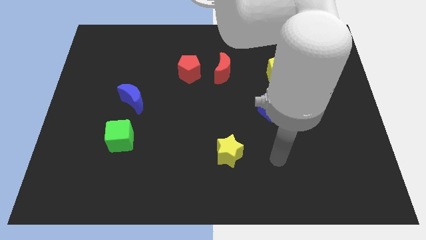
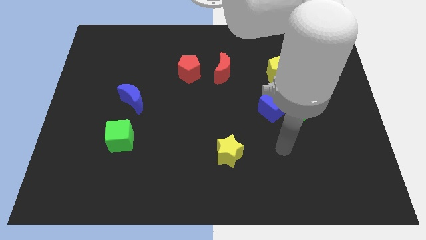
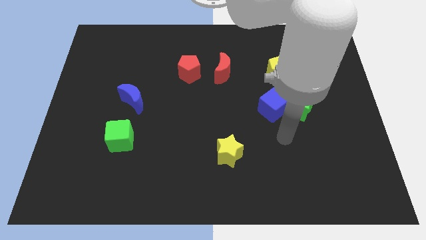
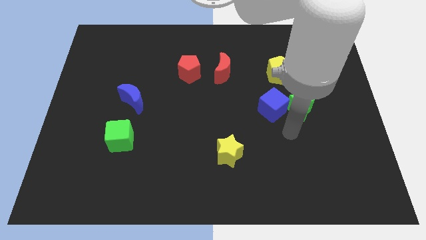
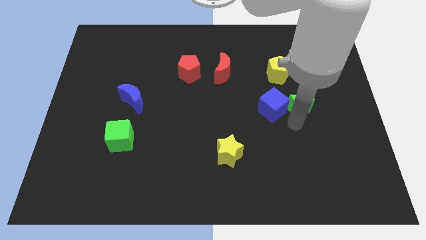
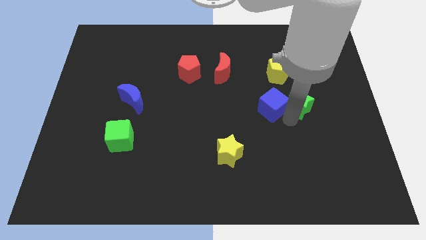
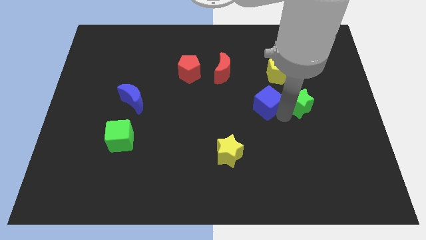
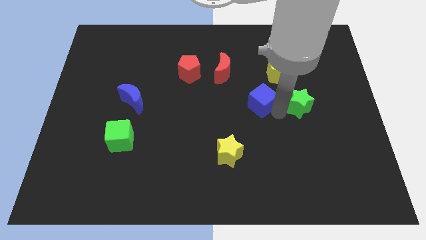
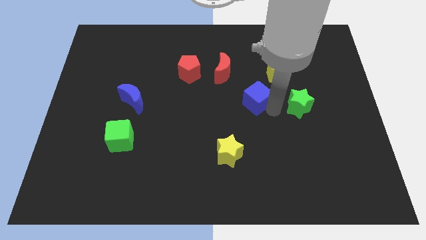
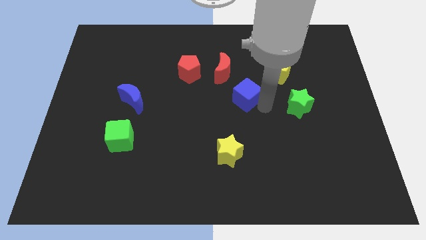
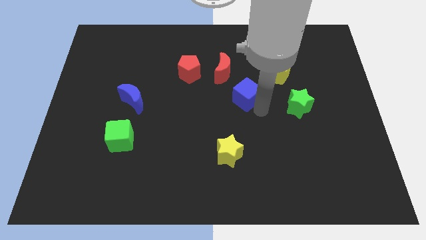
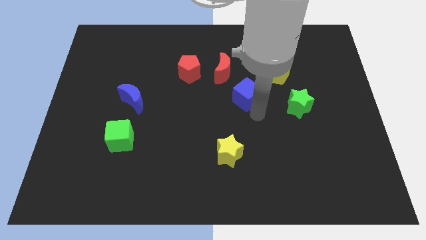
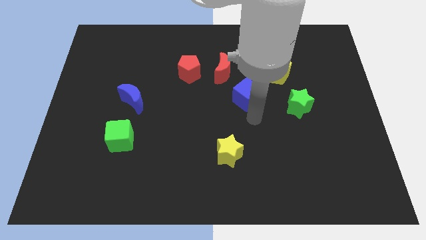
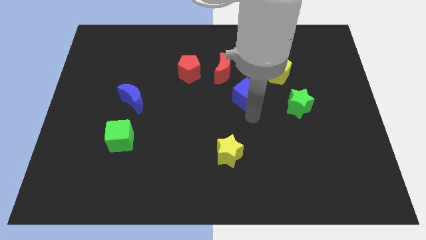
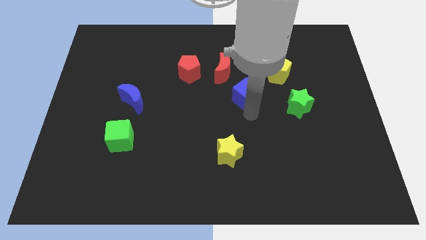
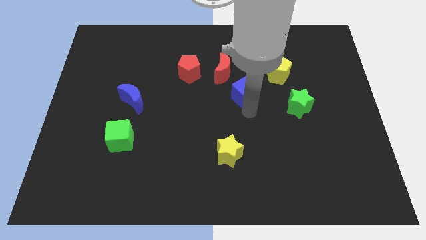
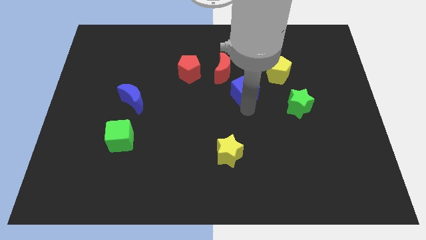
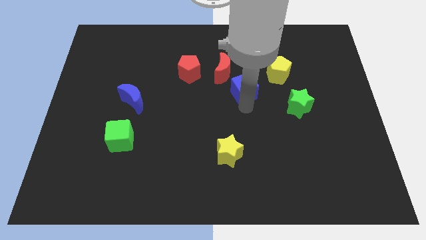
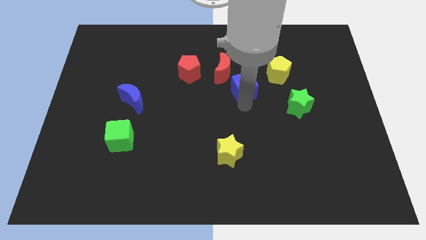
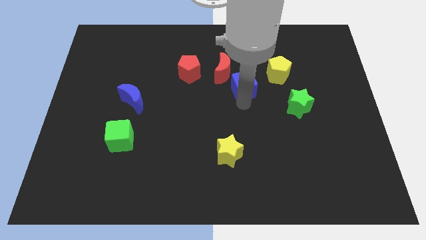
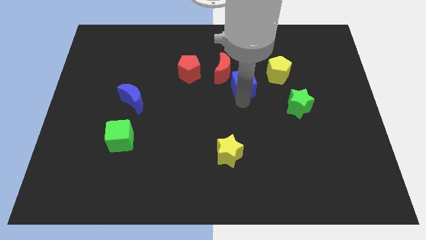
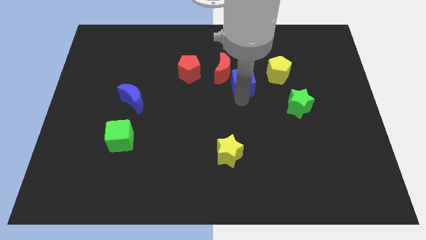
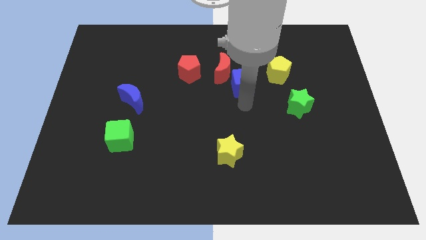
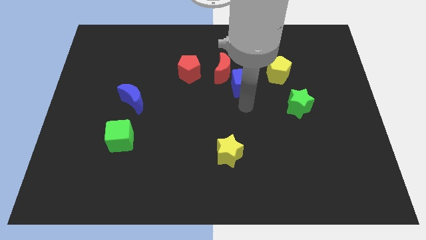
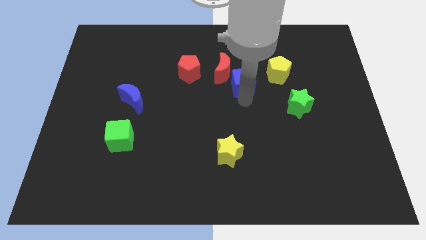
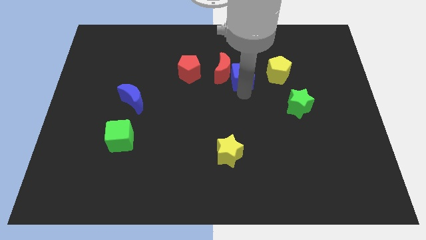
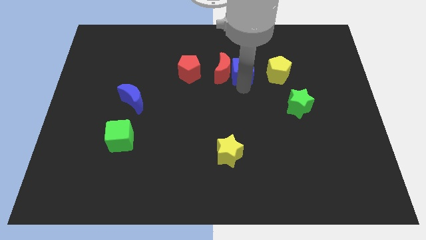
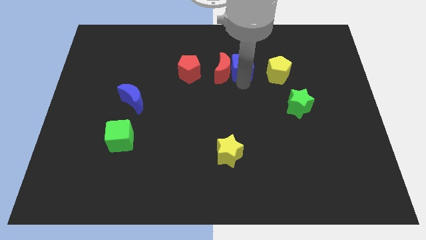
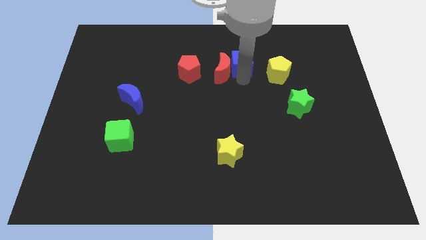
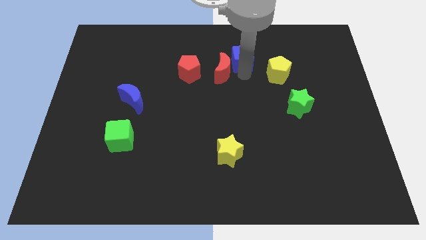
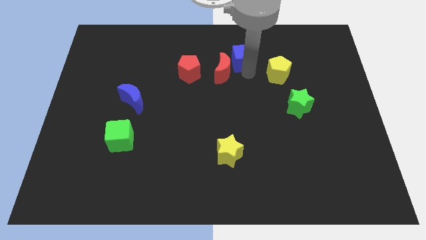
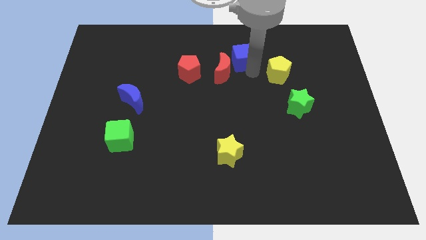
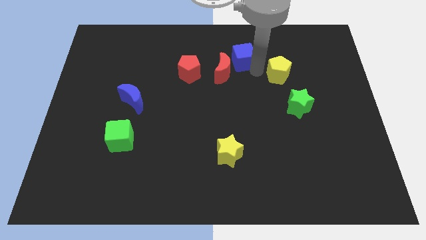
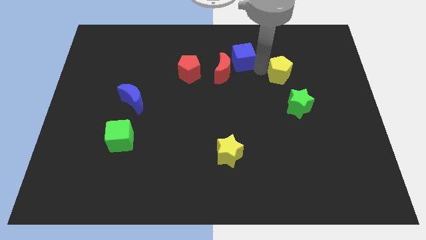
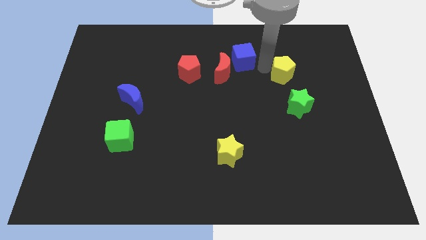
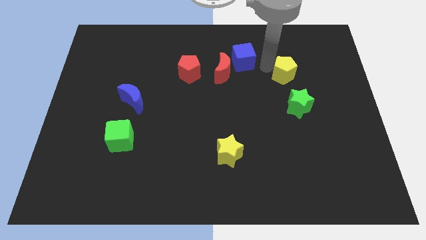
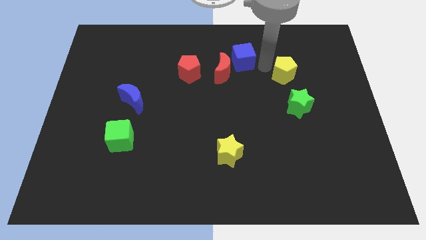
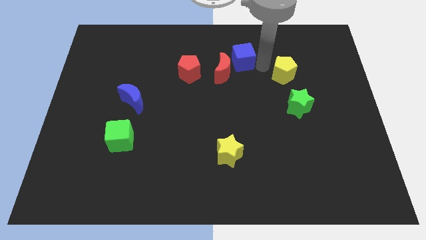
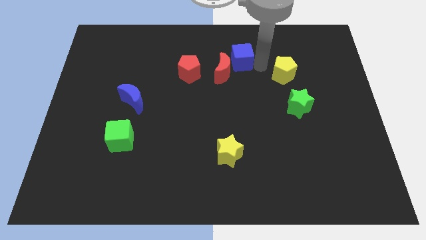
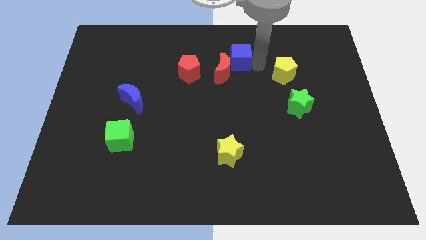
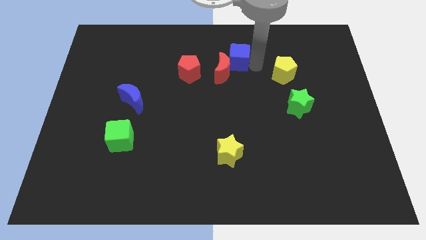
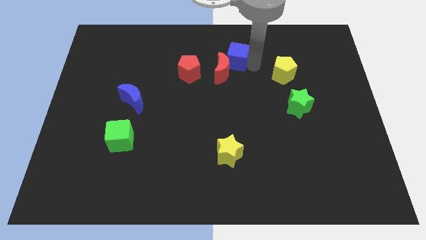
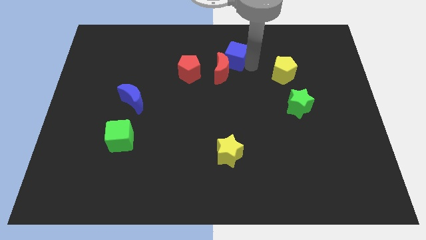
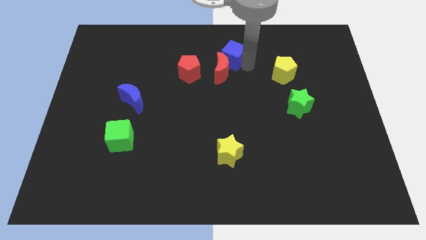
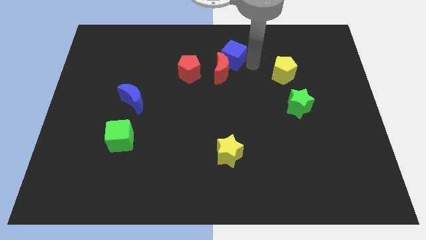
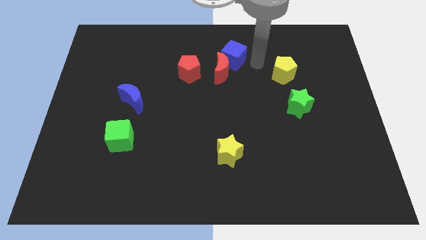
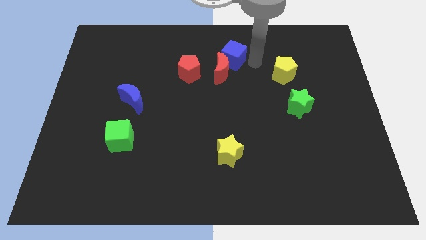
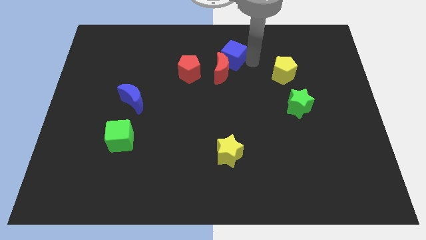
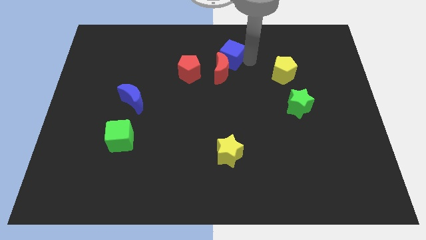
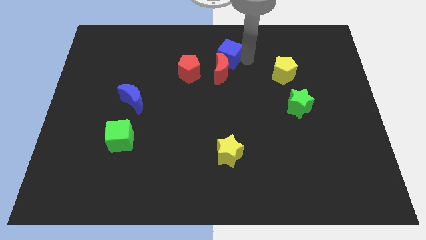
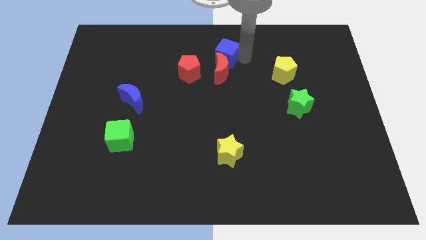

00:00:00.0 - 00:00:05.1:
move the blue cube to the top left of the red moon

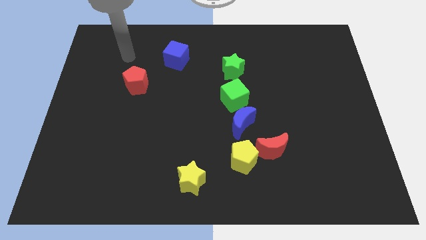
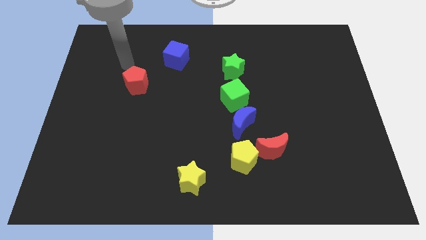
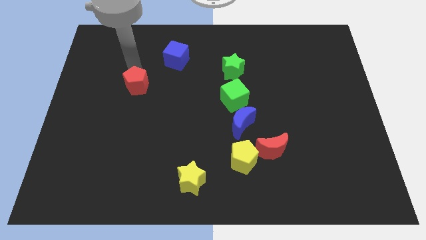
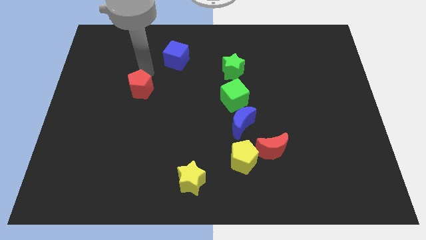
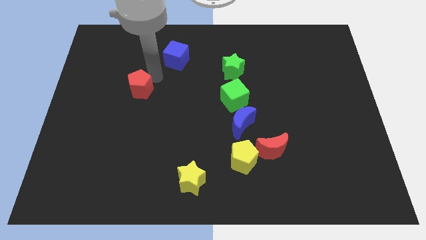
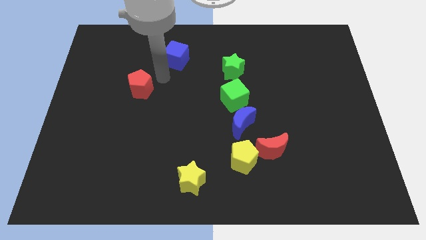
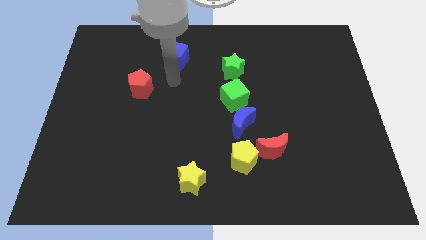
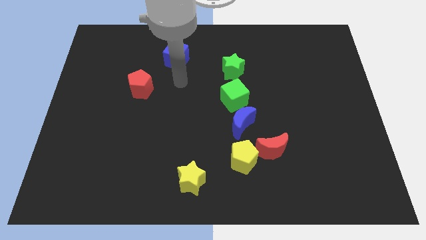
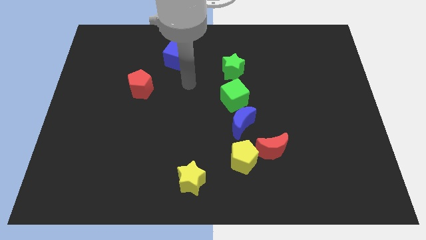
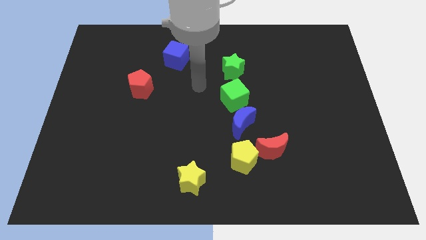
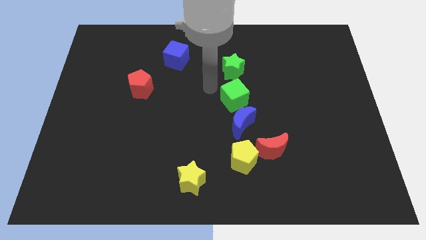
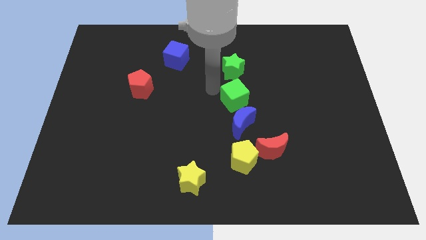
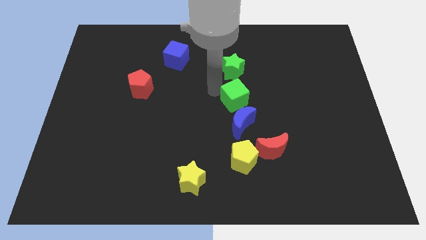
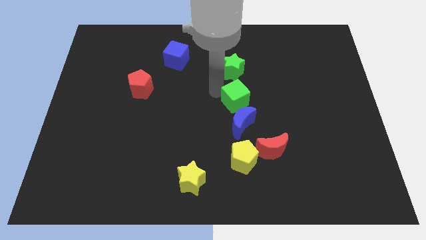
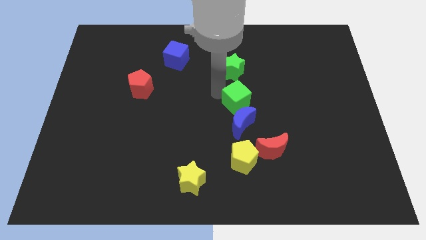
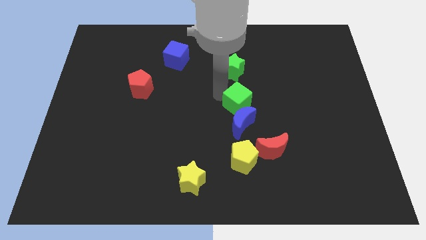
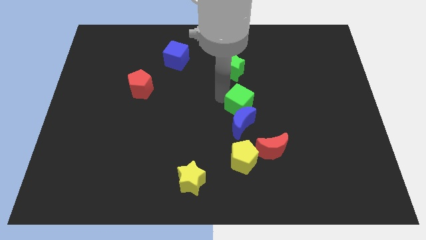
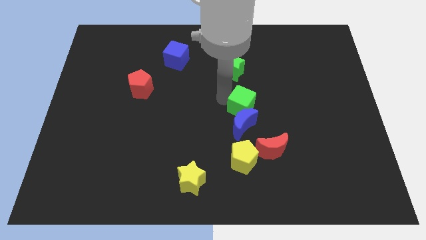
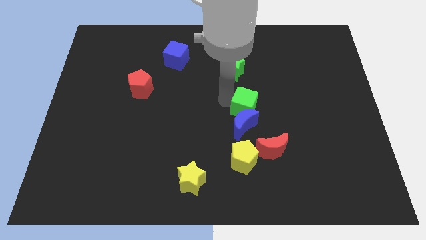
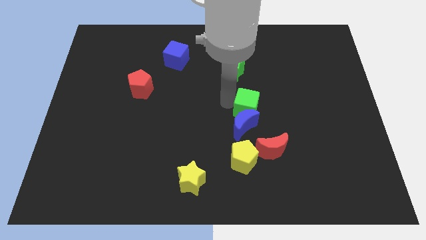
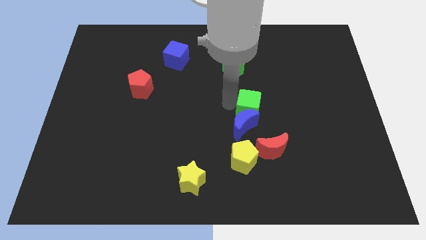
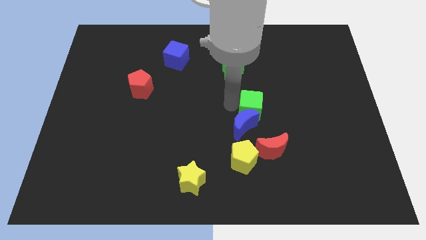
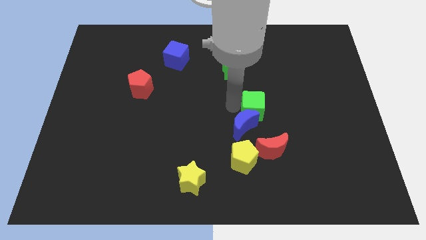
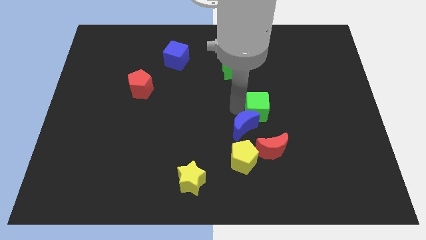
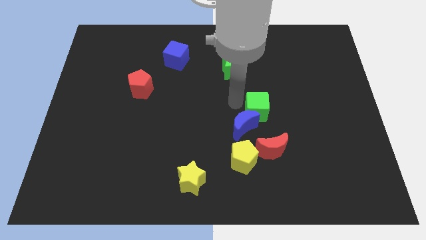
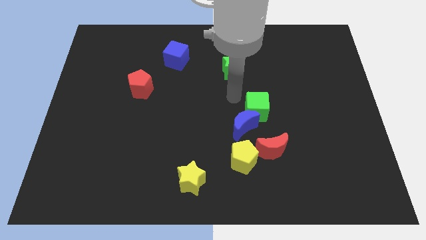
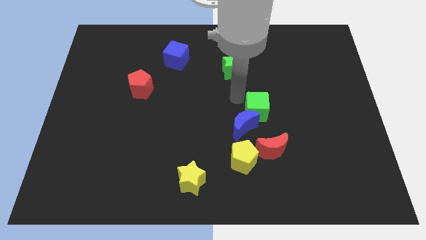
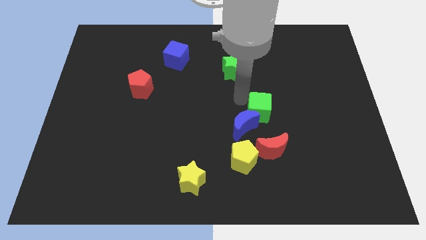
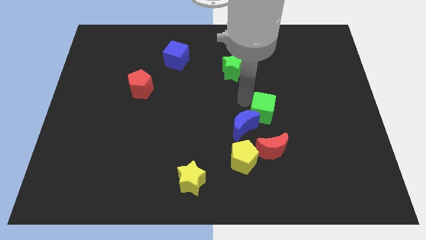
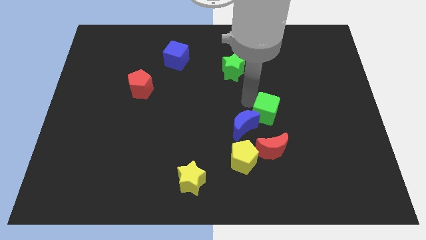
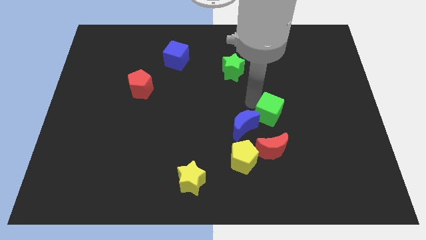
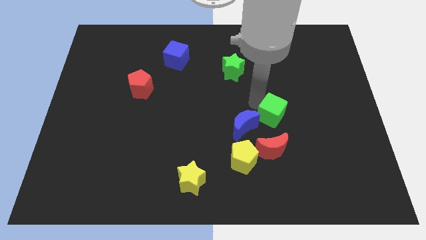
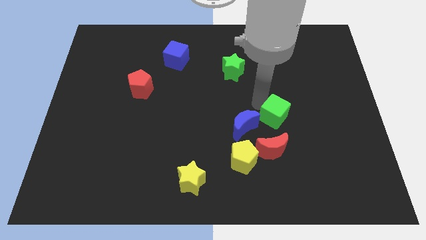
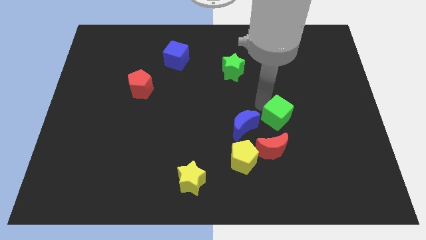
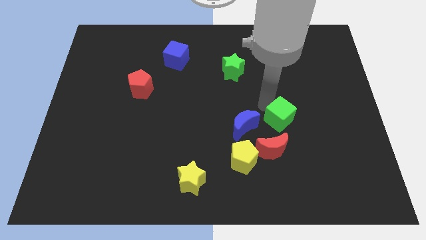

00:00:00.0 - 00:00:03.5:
put the green cube to the top right side of the red moon
